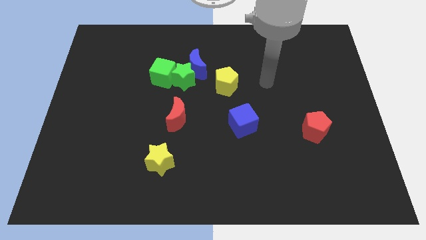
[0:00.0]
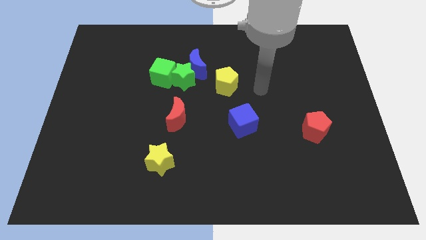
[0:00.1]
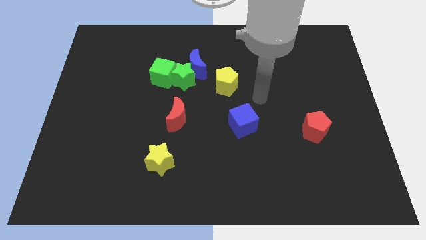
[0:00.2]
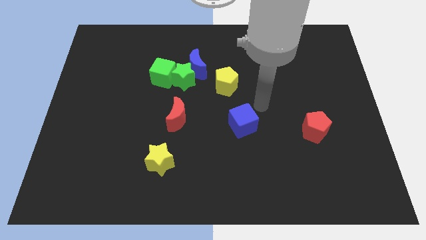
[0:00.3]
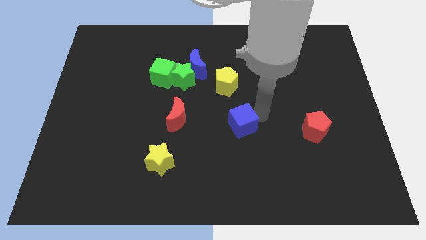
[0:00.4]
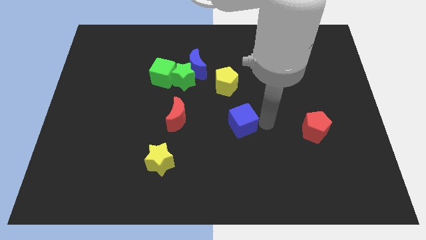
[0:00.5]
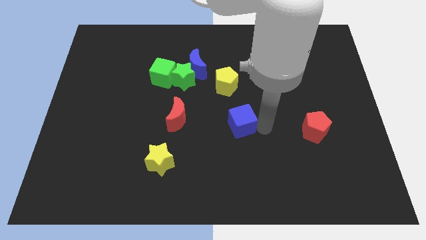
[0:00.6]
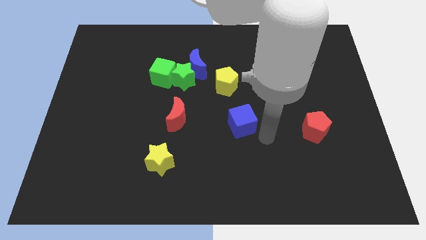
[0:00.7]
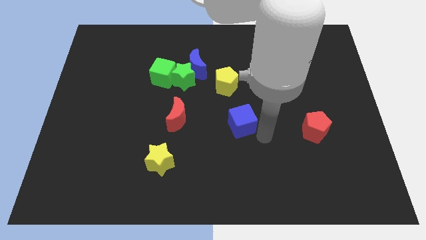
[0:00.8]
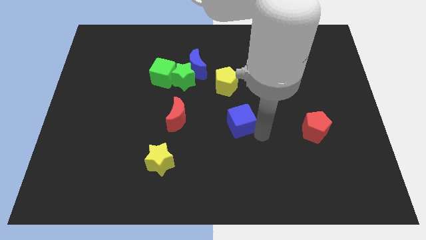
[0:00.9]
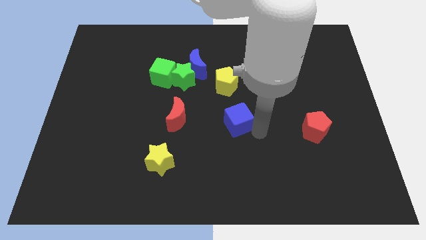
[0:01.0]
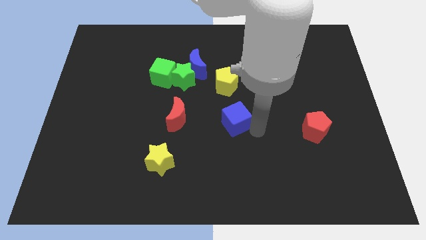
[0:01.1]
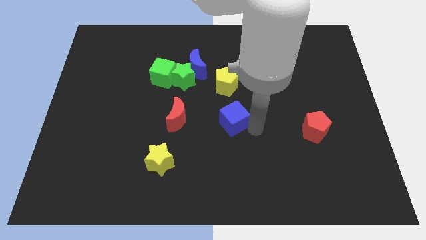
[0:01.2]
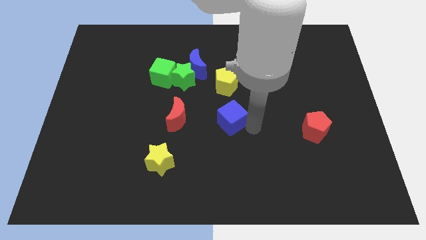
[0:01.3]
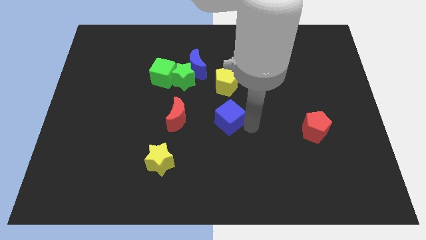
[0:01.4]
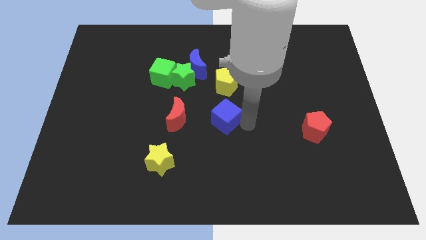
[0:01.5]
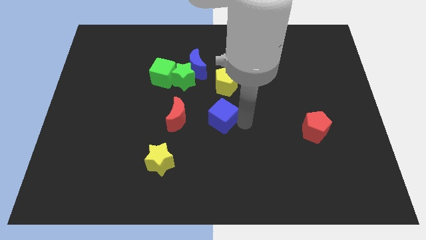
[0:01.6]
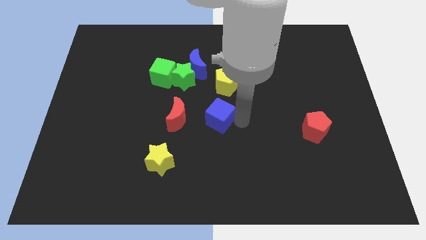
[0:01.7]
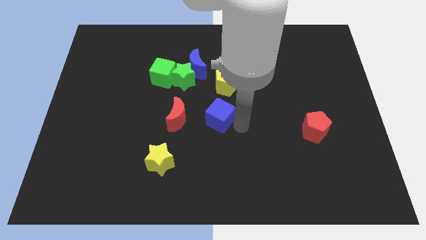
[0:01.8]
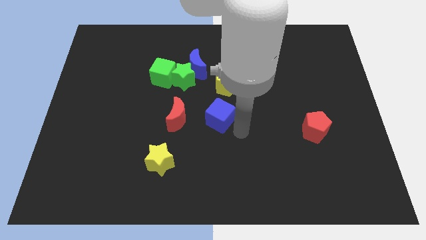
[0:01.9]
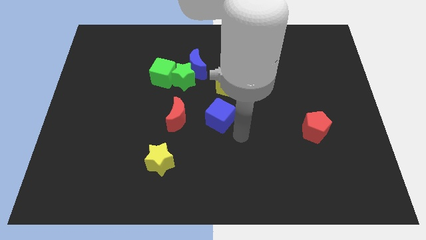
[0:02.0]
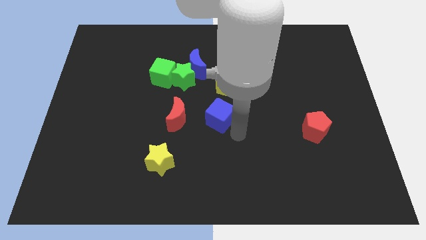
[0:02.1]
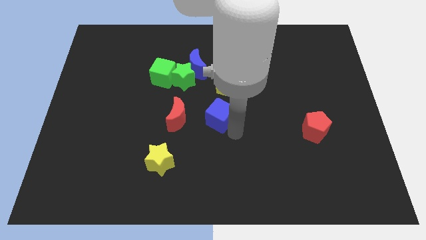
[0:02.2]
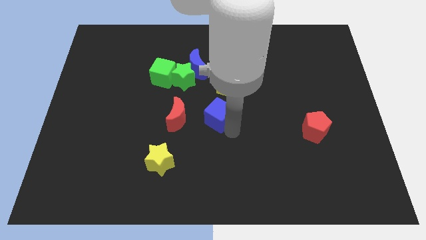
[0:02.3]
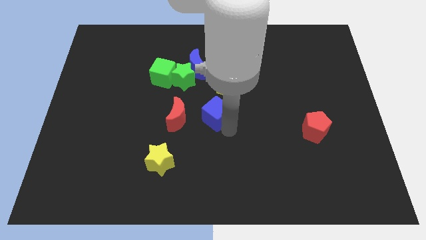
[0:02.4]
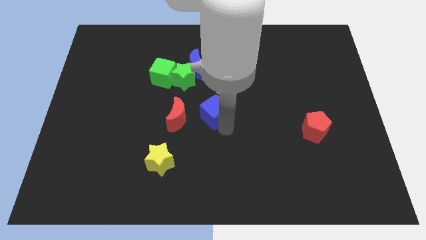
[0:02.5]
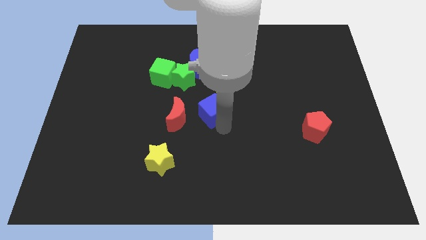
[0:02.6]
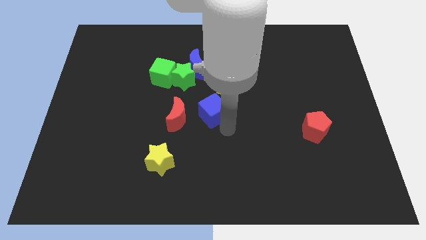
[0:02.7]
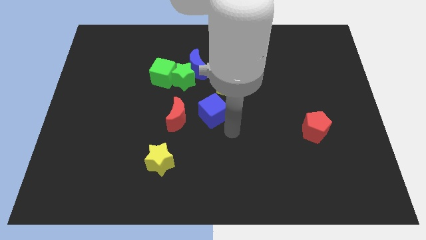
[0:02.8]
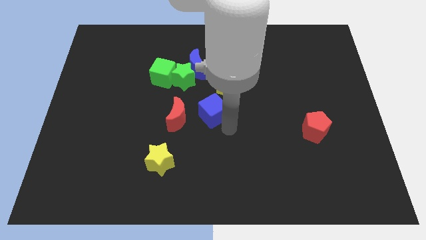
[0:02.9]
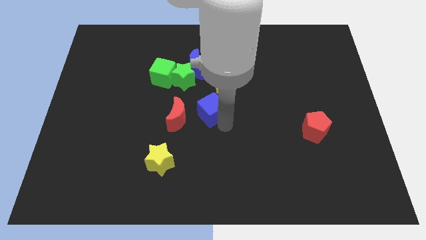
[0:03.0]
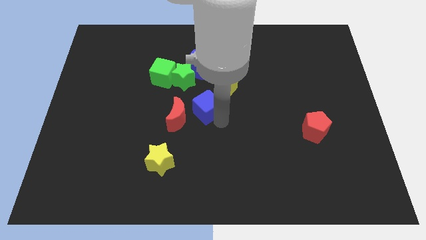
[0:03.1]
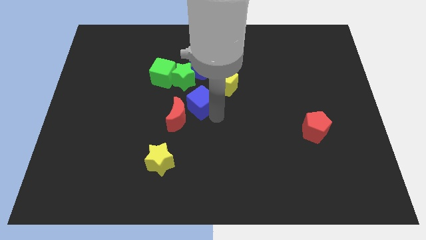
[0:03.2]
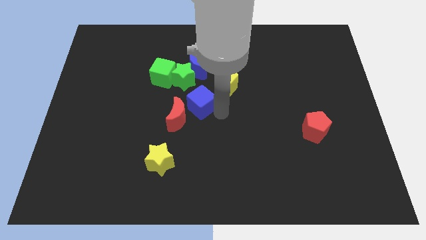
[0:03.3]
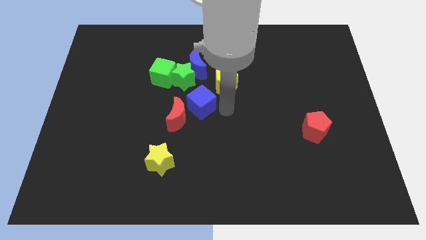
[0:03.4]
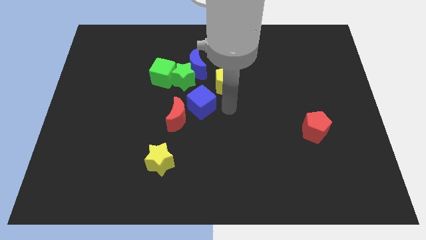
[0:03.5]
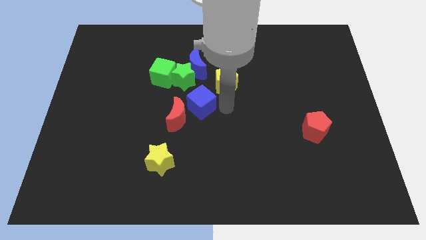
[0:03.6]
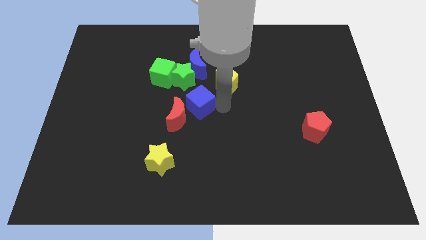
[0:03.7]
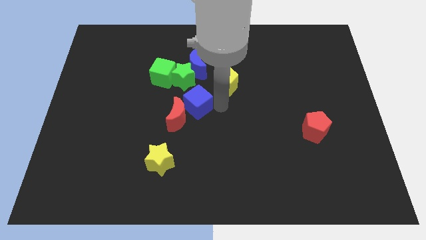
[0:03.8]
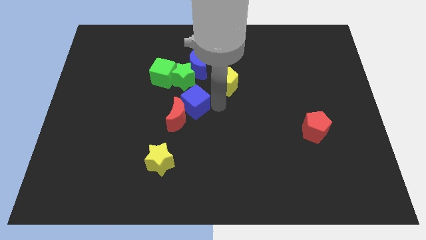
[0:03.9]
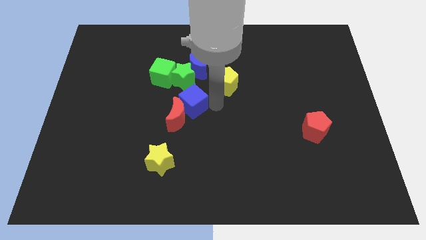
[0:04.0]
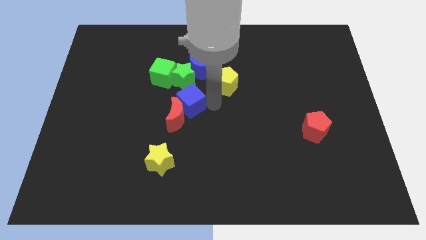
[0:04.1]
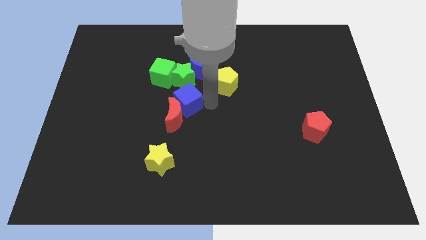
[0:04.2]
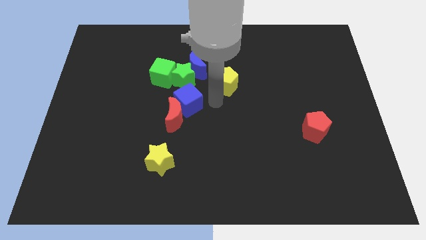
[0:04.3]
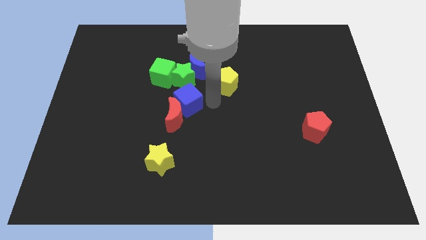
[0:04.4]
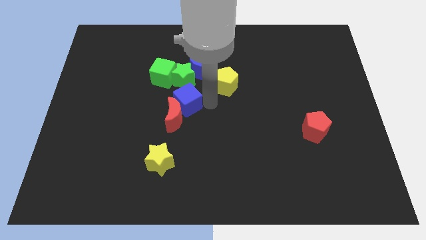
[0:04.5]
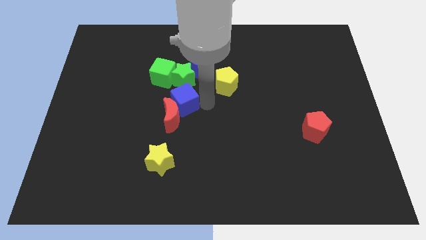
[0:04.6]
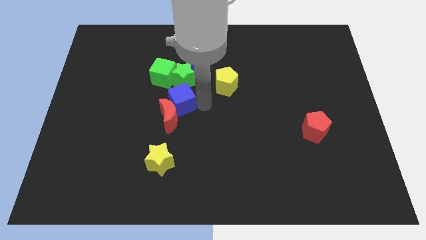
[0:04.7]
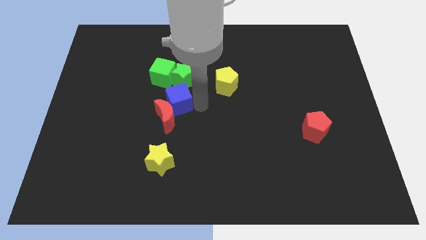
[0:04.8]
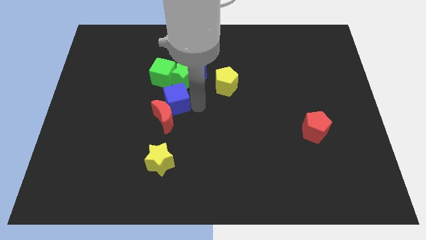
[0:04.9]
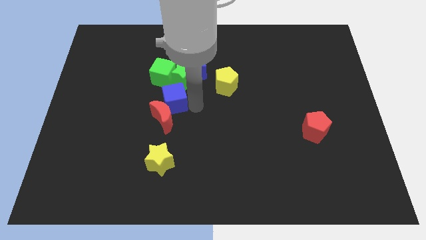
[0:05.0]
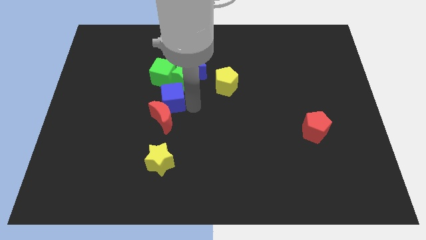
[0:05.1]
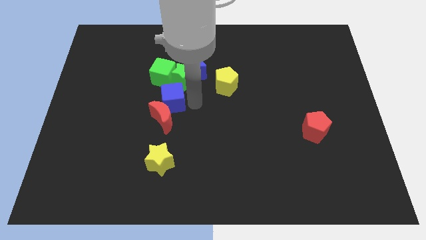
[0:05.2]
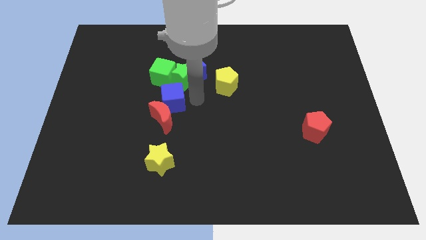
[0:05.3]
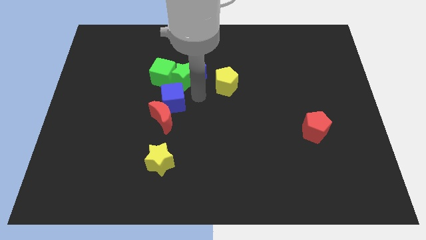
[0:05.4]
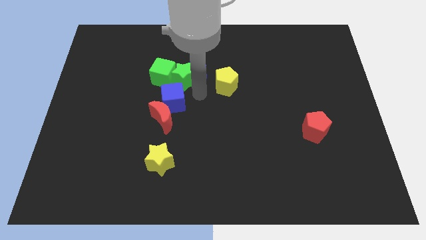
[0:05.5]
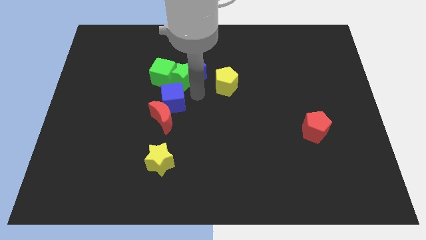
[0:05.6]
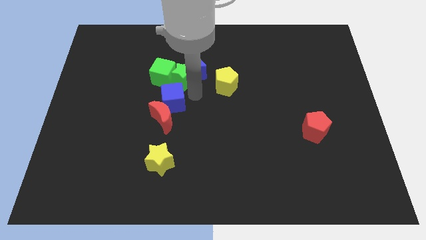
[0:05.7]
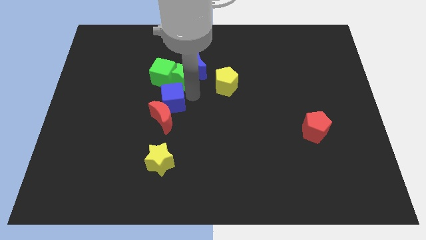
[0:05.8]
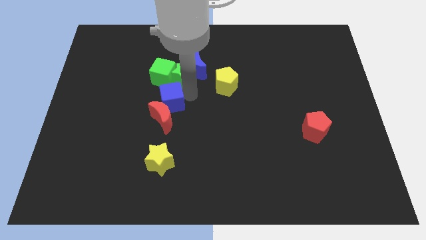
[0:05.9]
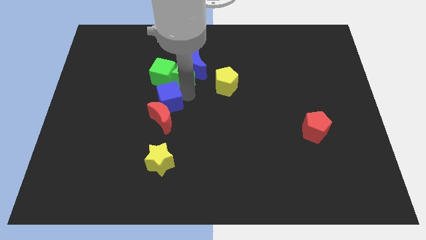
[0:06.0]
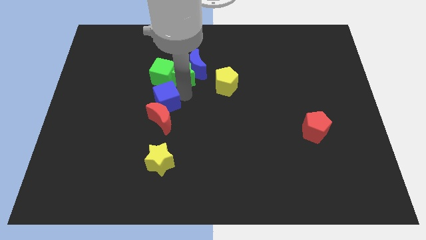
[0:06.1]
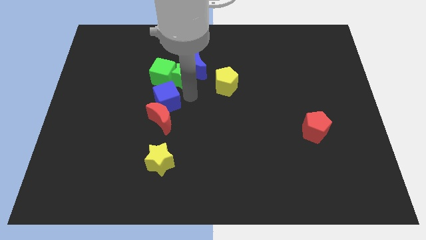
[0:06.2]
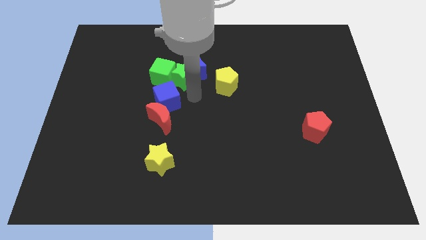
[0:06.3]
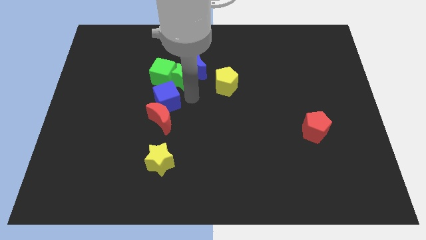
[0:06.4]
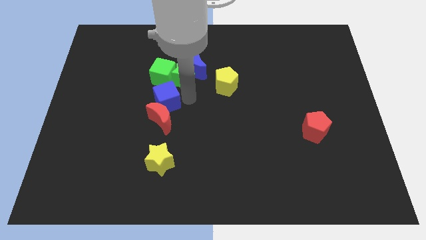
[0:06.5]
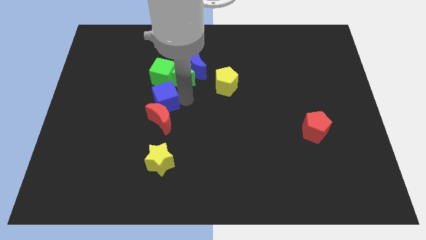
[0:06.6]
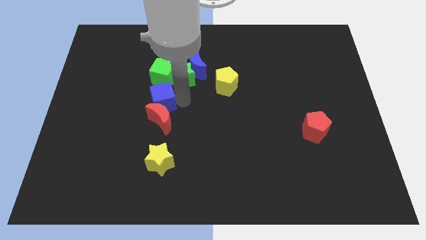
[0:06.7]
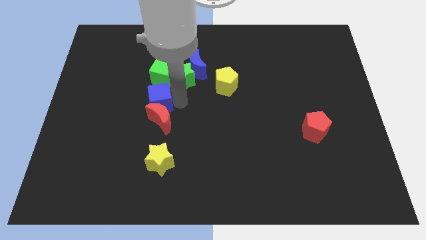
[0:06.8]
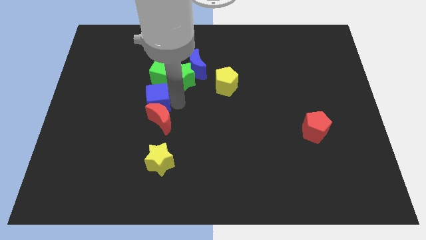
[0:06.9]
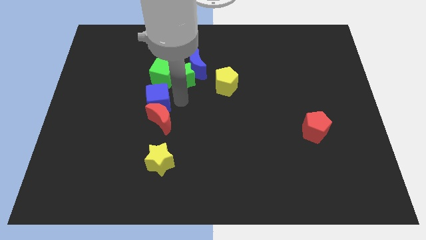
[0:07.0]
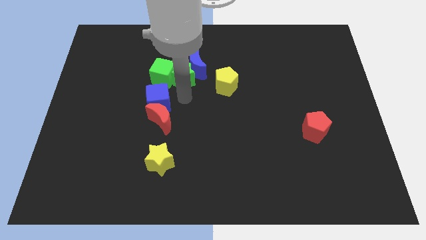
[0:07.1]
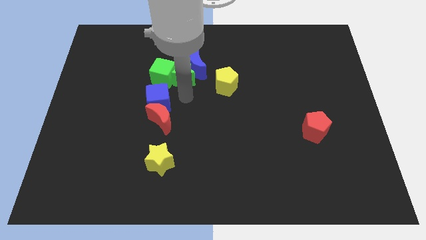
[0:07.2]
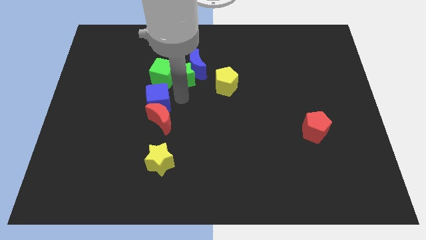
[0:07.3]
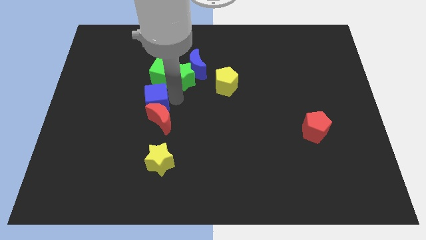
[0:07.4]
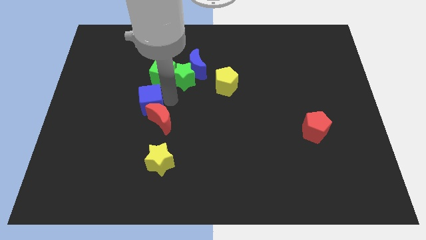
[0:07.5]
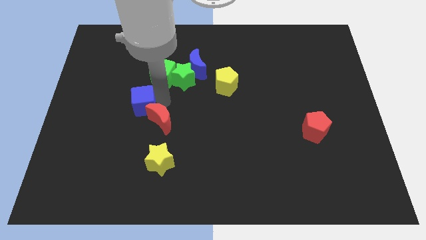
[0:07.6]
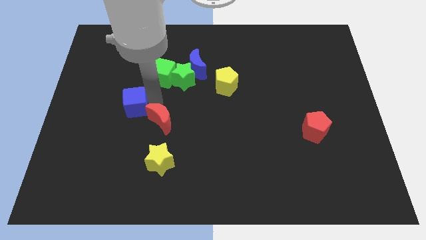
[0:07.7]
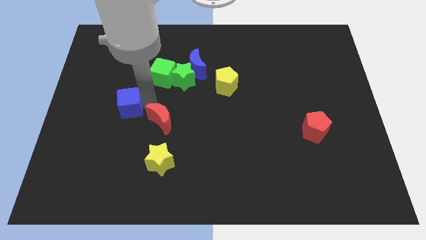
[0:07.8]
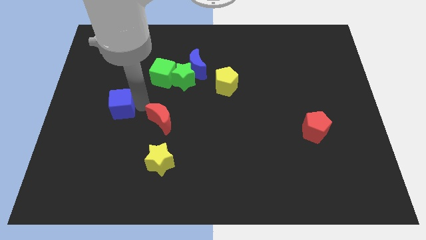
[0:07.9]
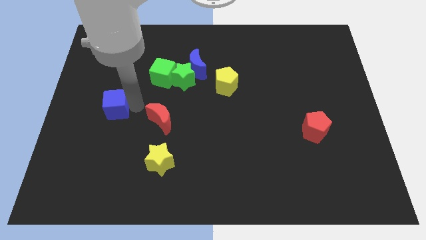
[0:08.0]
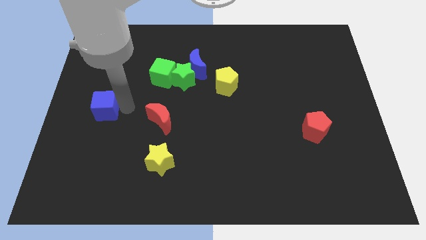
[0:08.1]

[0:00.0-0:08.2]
move the blue cube to the center left
